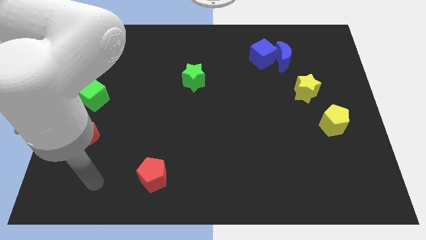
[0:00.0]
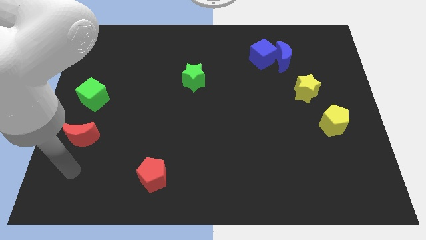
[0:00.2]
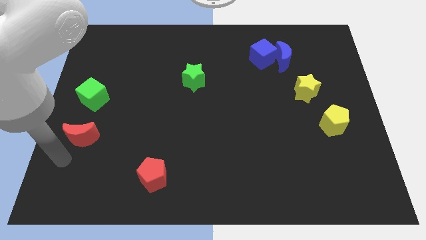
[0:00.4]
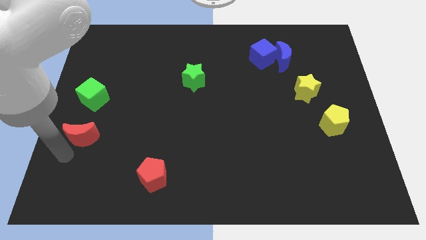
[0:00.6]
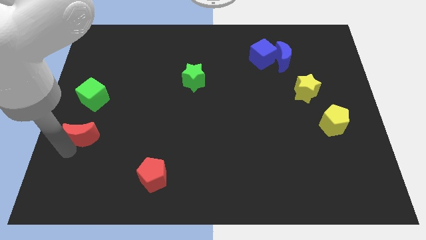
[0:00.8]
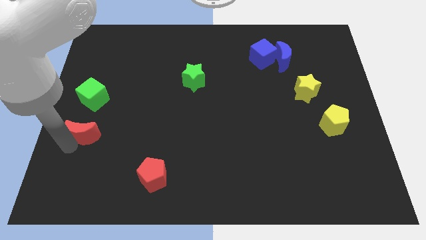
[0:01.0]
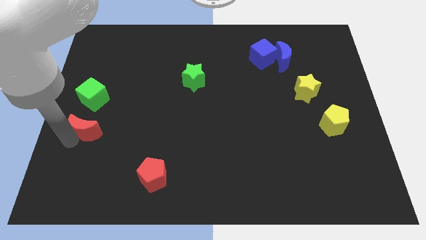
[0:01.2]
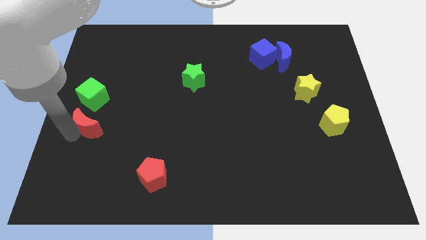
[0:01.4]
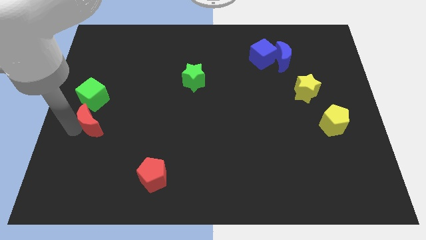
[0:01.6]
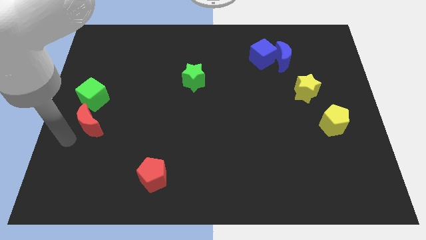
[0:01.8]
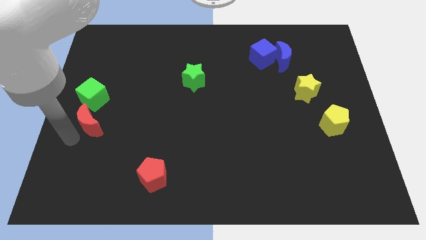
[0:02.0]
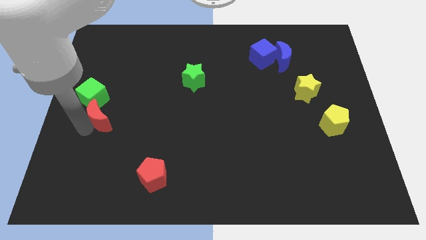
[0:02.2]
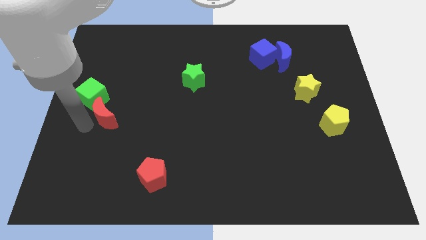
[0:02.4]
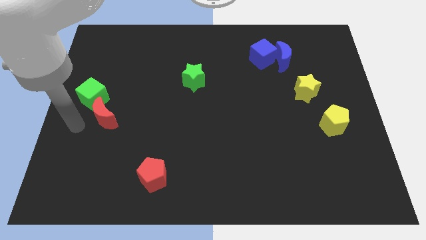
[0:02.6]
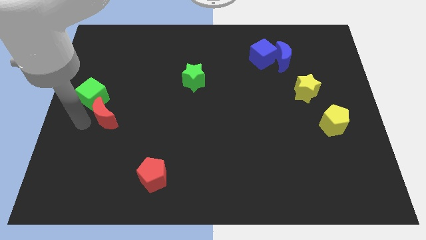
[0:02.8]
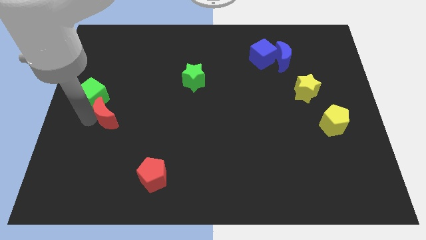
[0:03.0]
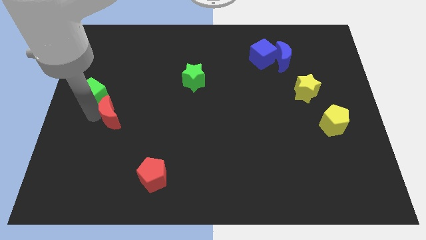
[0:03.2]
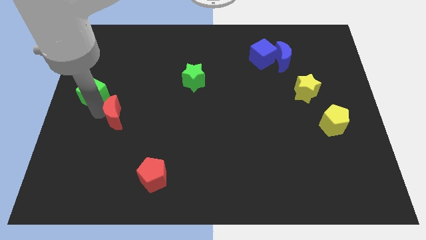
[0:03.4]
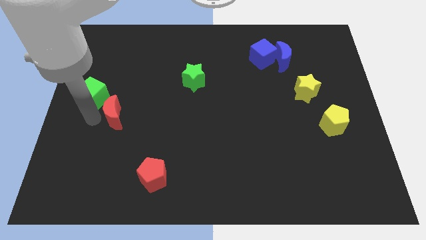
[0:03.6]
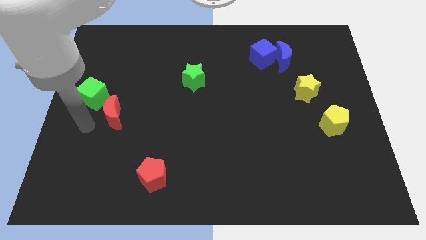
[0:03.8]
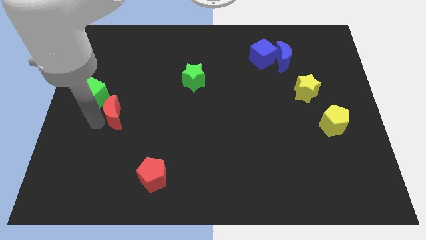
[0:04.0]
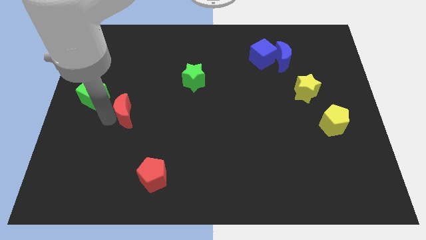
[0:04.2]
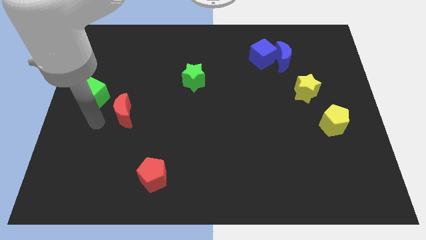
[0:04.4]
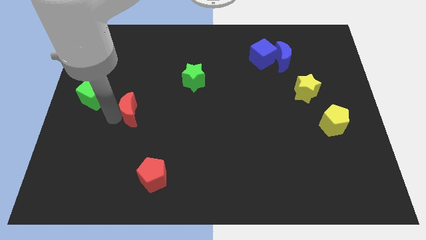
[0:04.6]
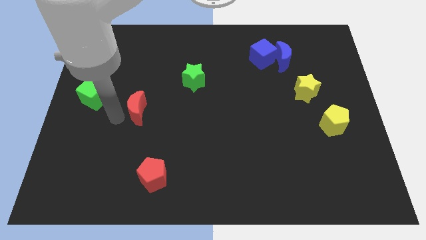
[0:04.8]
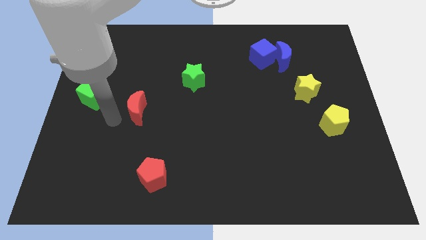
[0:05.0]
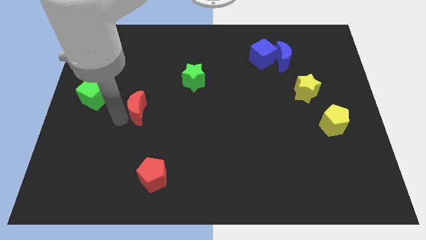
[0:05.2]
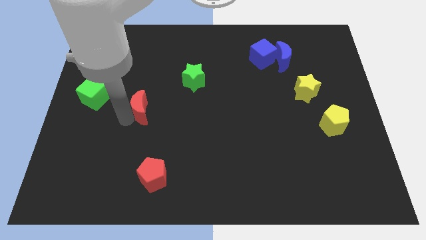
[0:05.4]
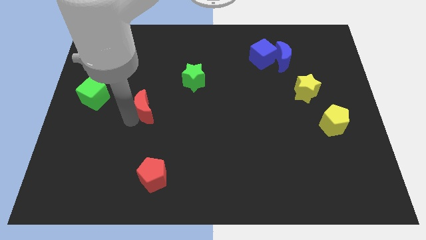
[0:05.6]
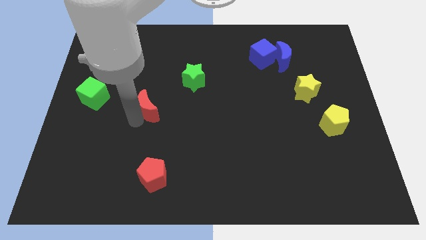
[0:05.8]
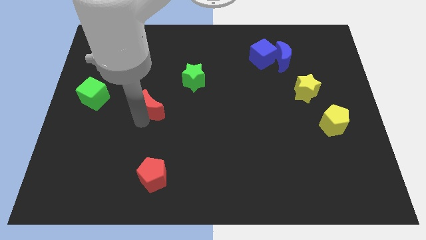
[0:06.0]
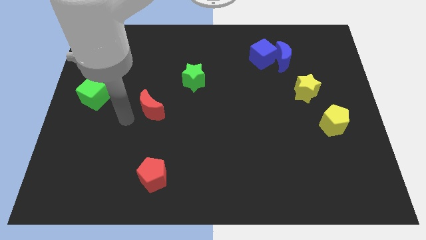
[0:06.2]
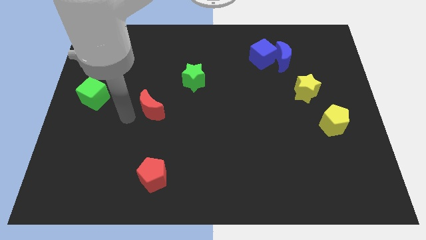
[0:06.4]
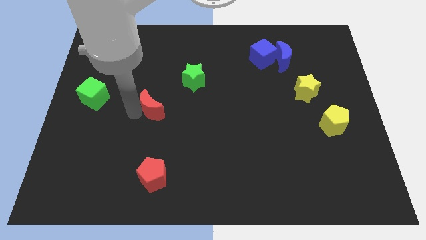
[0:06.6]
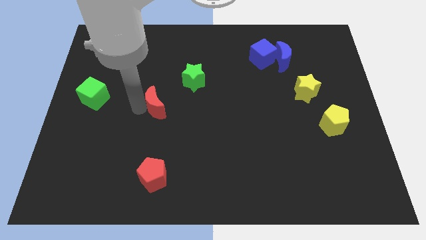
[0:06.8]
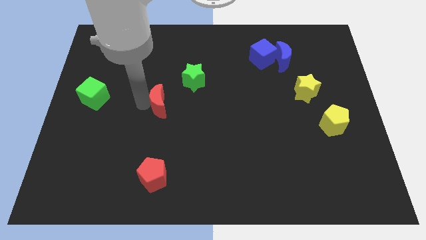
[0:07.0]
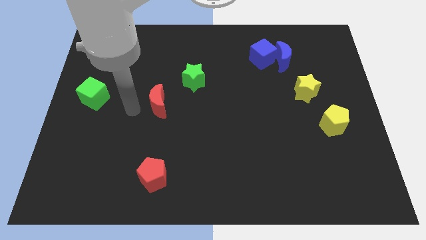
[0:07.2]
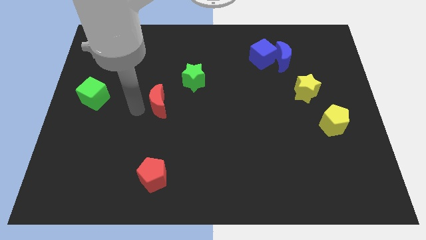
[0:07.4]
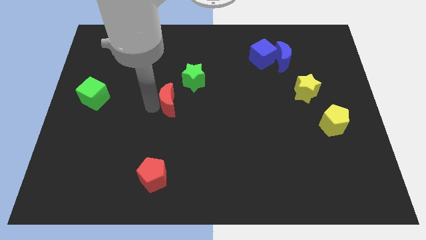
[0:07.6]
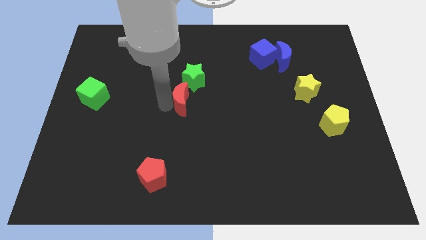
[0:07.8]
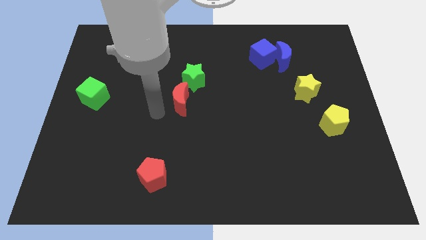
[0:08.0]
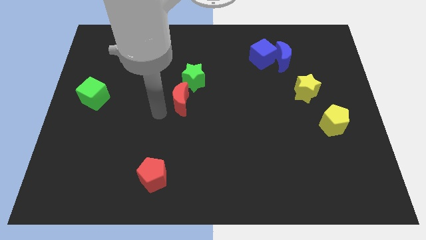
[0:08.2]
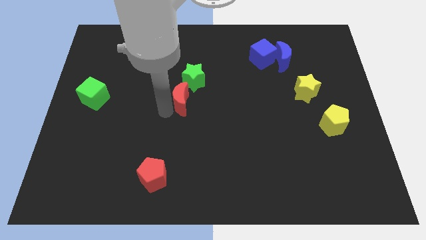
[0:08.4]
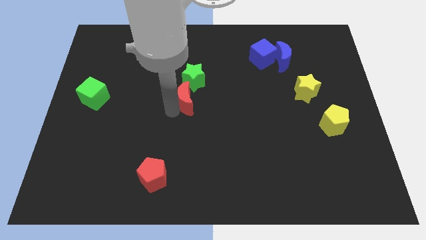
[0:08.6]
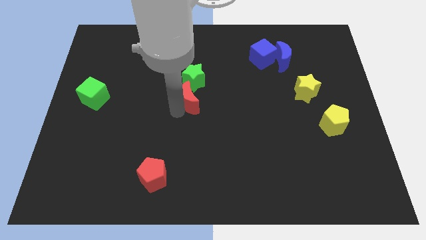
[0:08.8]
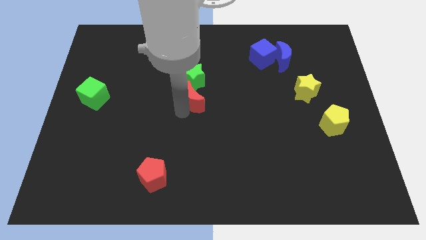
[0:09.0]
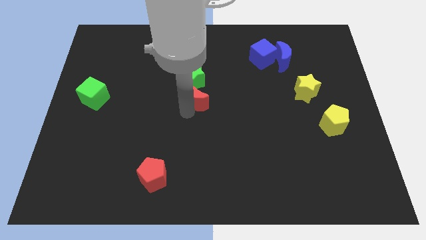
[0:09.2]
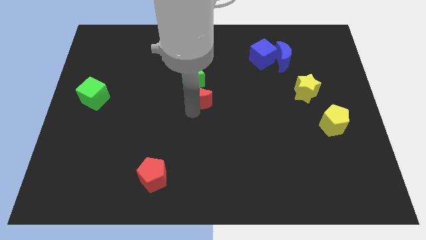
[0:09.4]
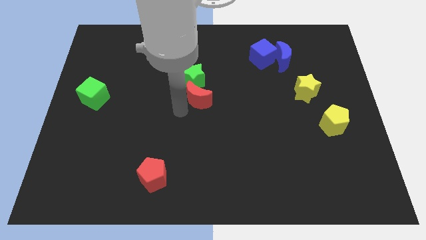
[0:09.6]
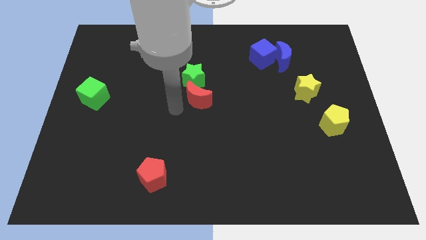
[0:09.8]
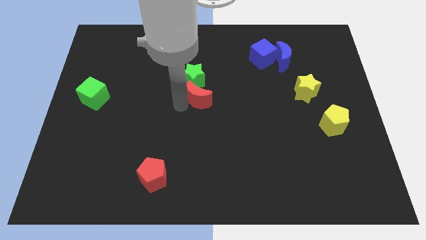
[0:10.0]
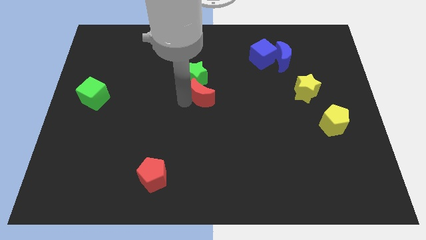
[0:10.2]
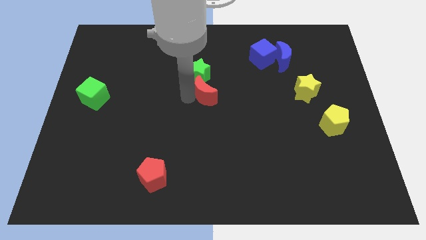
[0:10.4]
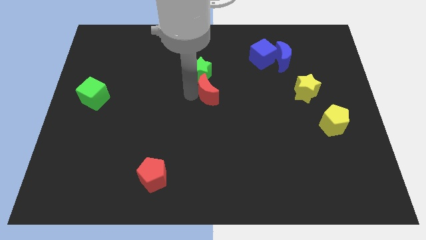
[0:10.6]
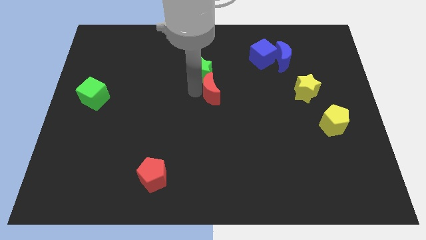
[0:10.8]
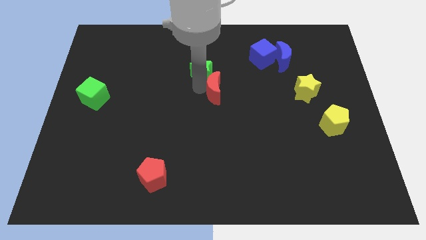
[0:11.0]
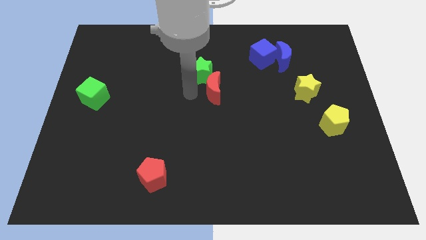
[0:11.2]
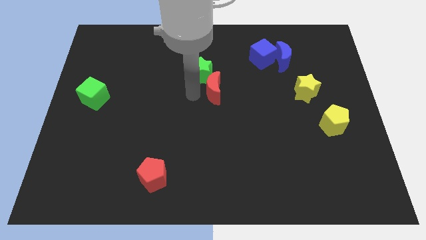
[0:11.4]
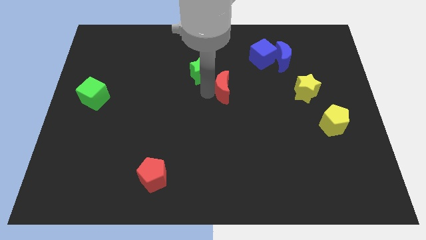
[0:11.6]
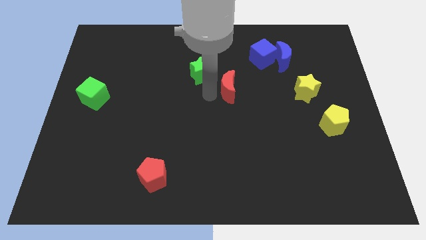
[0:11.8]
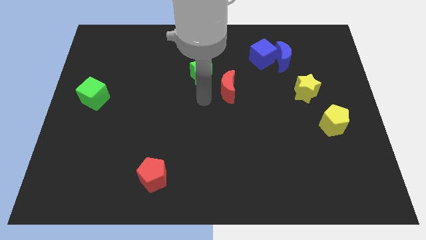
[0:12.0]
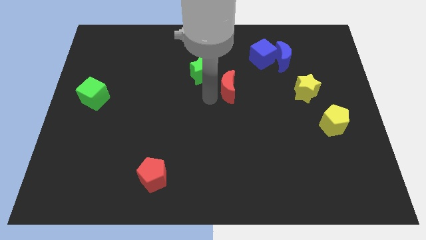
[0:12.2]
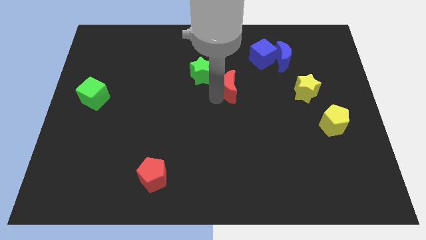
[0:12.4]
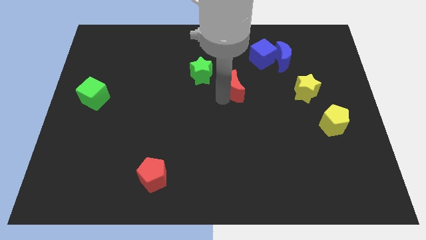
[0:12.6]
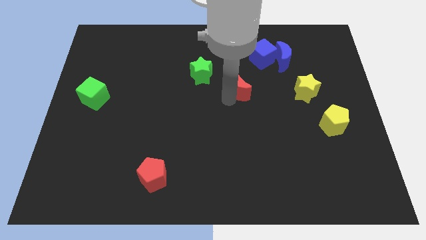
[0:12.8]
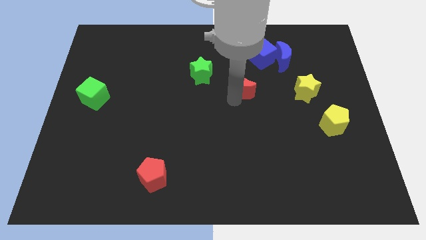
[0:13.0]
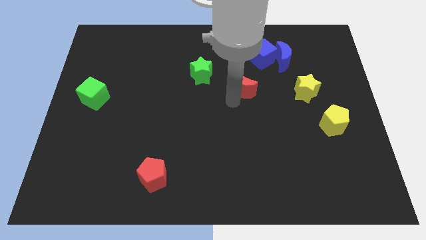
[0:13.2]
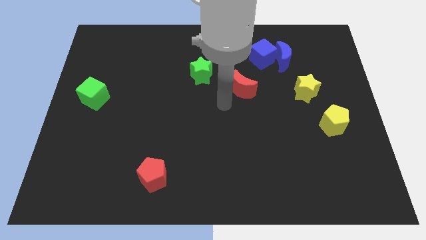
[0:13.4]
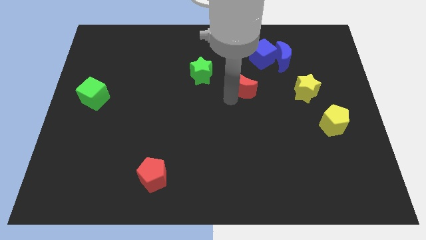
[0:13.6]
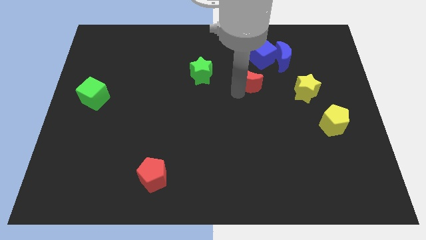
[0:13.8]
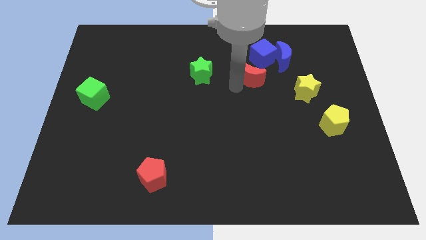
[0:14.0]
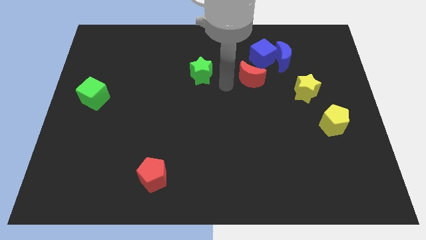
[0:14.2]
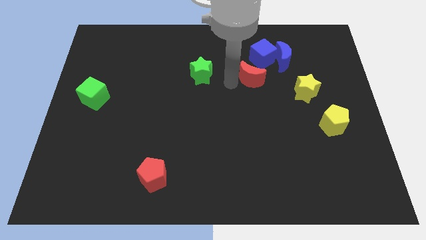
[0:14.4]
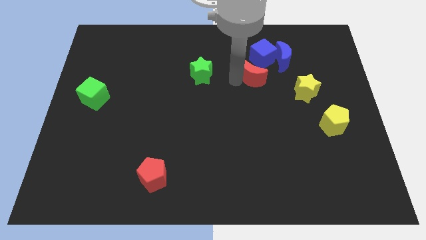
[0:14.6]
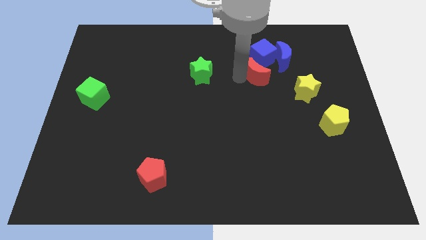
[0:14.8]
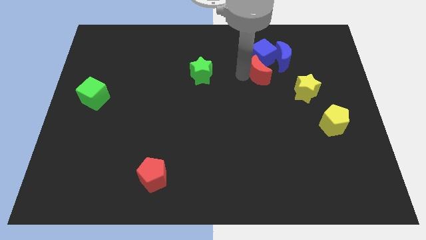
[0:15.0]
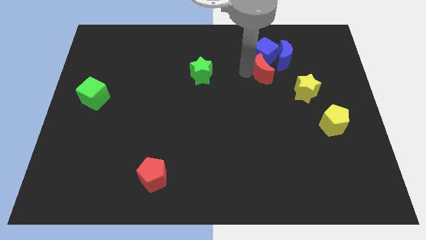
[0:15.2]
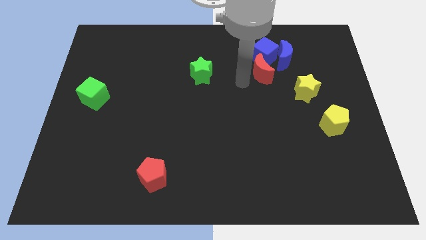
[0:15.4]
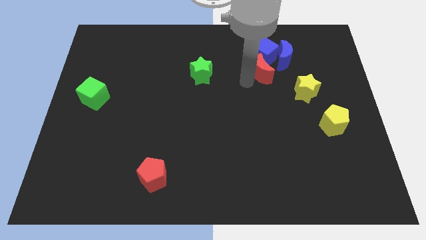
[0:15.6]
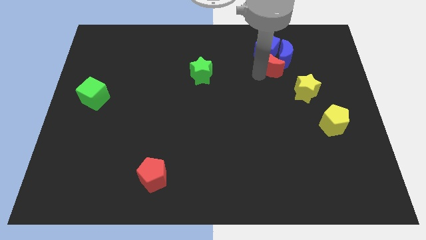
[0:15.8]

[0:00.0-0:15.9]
push the red moon close to the blue moon
